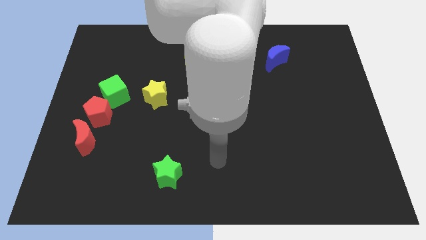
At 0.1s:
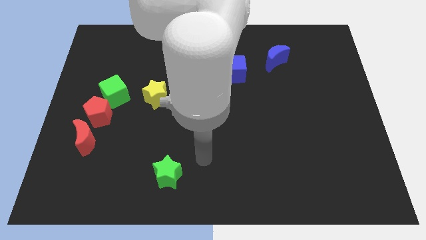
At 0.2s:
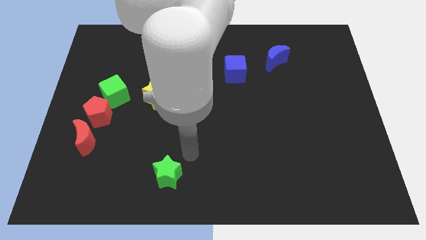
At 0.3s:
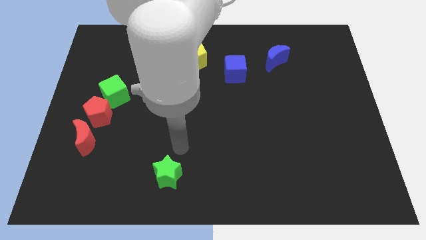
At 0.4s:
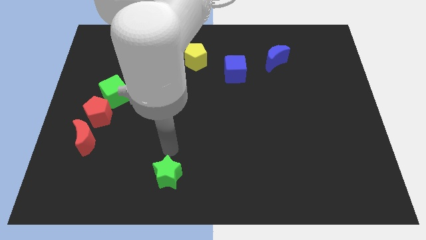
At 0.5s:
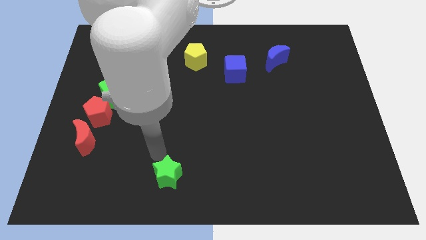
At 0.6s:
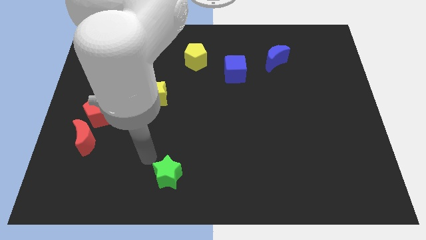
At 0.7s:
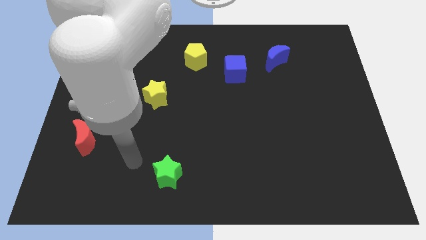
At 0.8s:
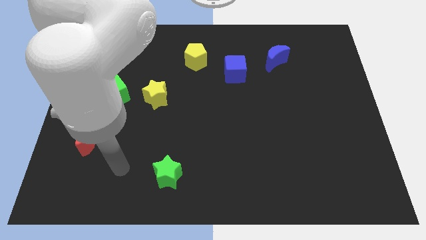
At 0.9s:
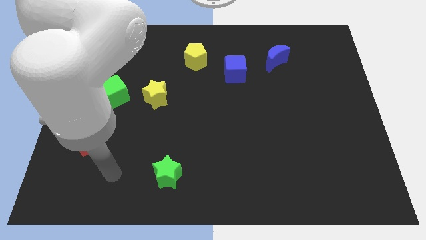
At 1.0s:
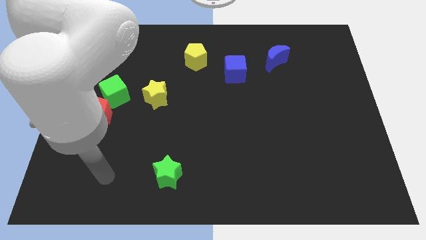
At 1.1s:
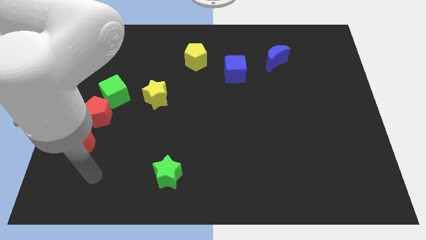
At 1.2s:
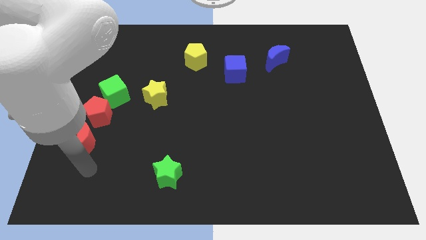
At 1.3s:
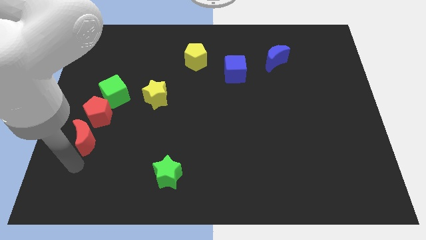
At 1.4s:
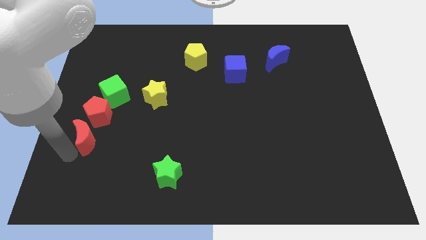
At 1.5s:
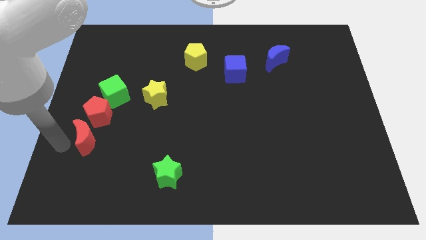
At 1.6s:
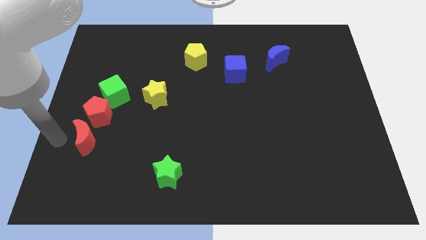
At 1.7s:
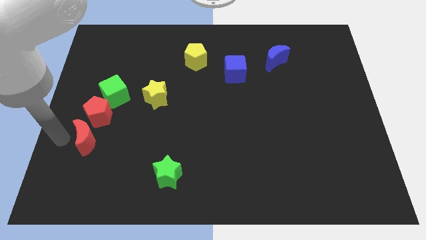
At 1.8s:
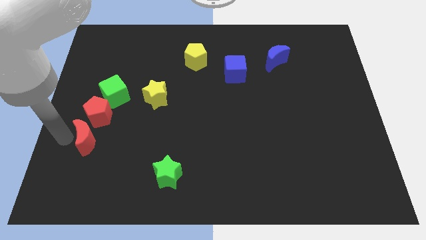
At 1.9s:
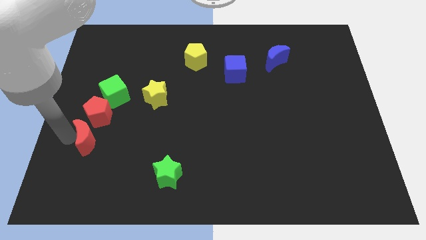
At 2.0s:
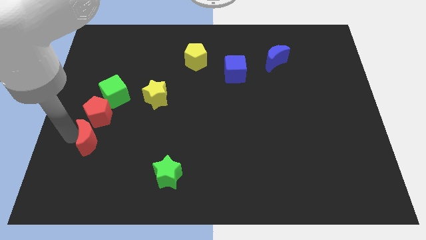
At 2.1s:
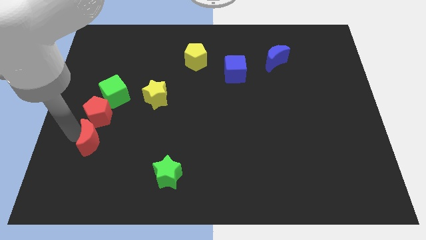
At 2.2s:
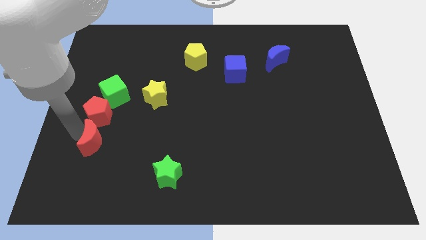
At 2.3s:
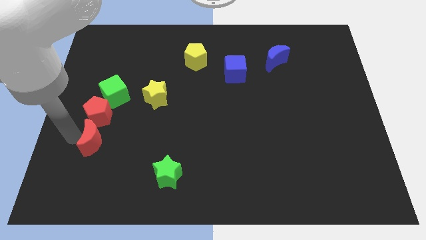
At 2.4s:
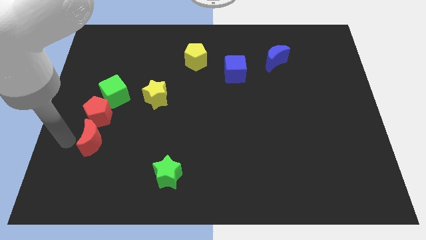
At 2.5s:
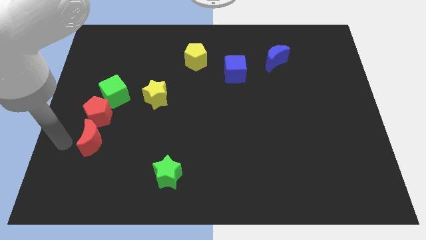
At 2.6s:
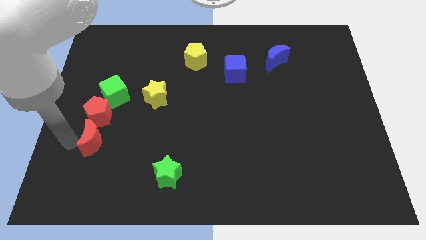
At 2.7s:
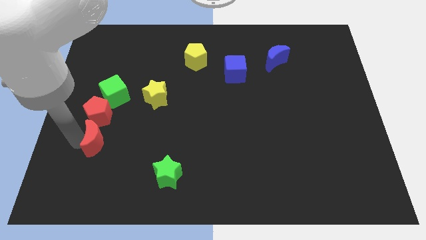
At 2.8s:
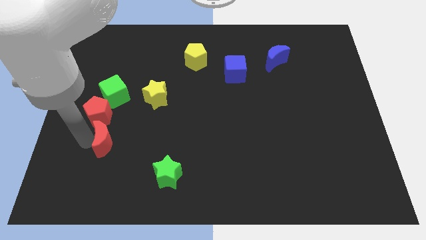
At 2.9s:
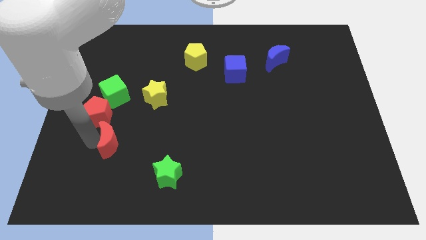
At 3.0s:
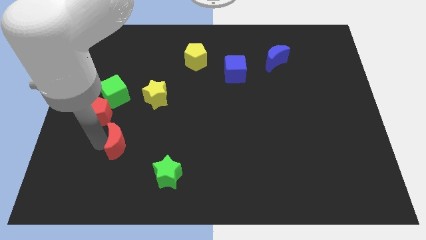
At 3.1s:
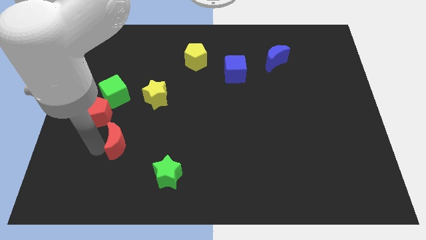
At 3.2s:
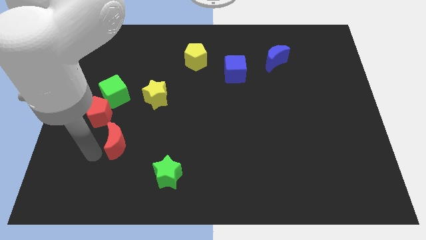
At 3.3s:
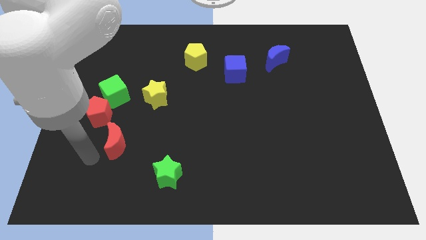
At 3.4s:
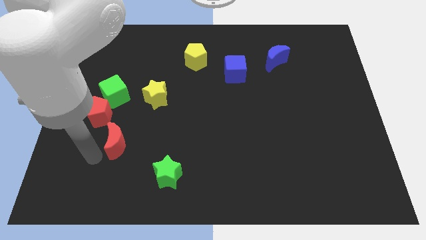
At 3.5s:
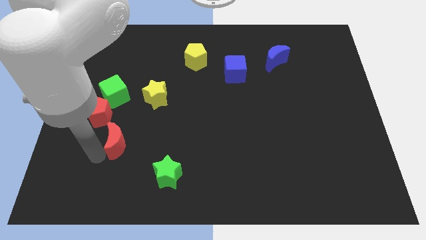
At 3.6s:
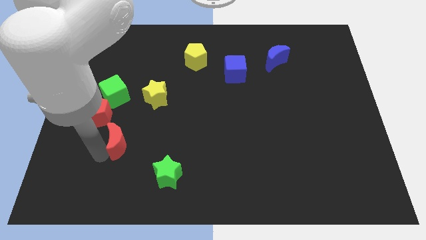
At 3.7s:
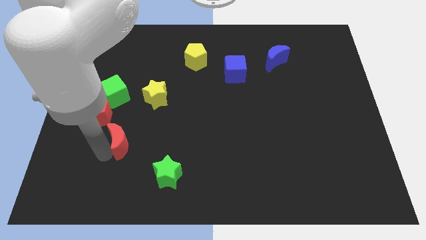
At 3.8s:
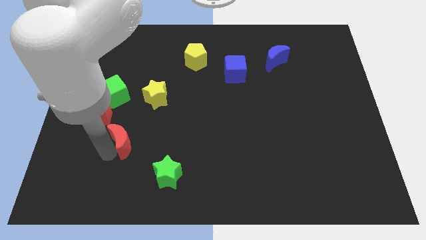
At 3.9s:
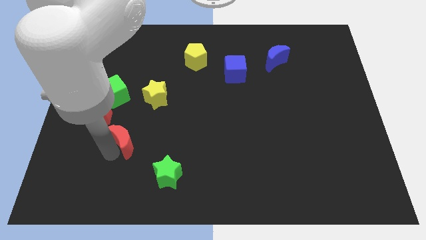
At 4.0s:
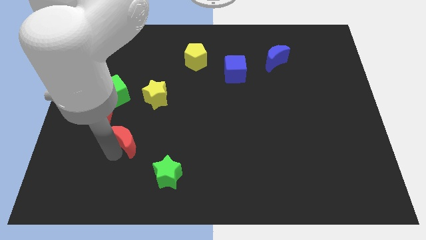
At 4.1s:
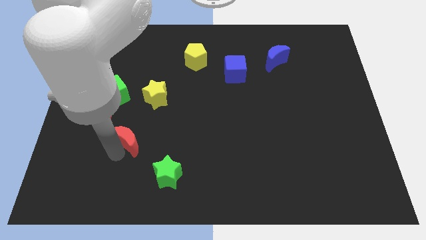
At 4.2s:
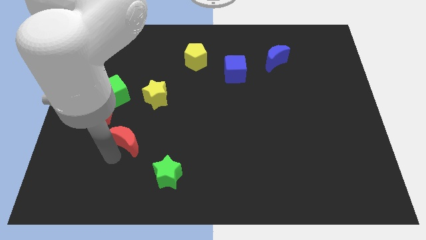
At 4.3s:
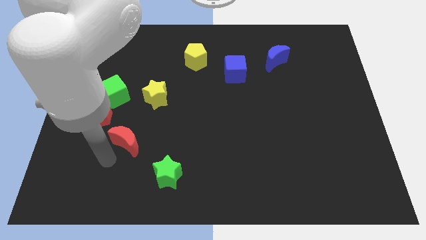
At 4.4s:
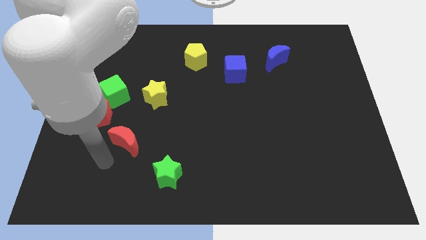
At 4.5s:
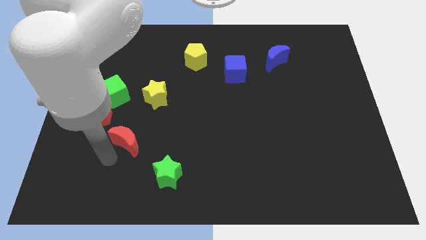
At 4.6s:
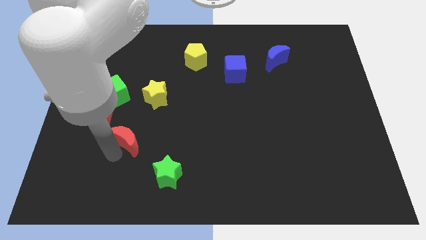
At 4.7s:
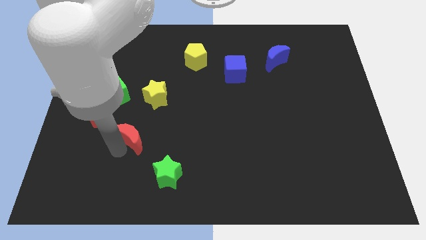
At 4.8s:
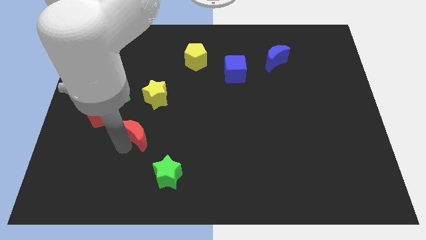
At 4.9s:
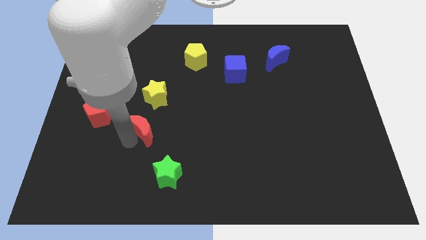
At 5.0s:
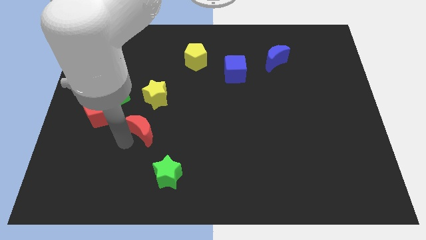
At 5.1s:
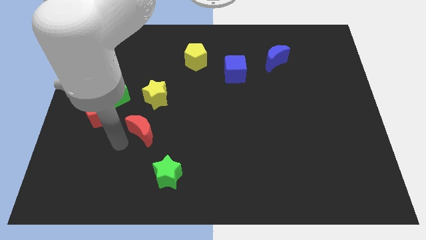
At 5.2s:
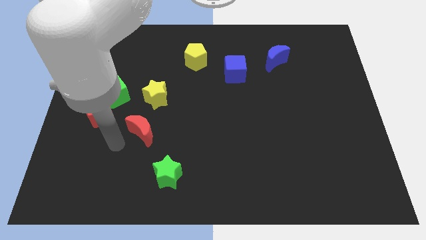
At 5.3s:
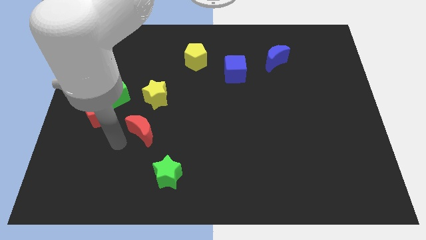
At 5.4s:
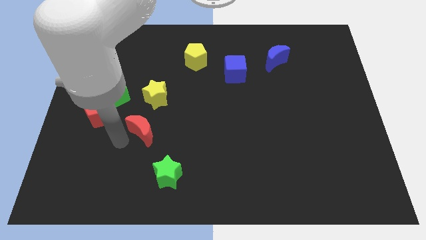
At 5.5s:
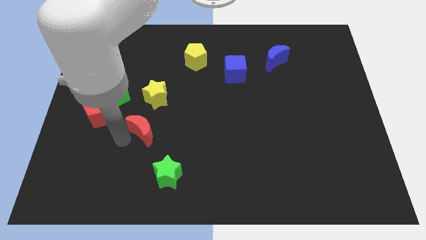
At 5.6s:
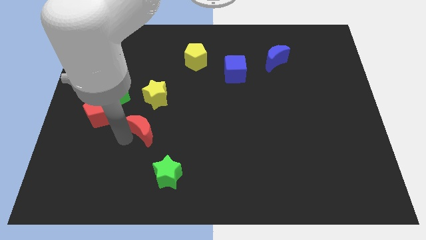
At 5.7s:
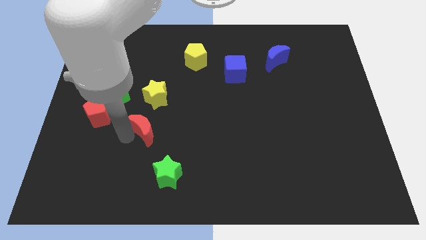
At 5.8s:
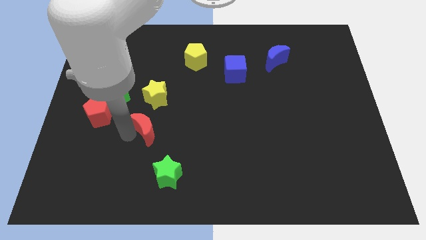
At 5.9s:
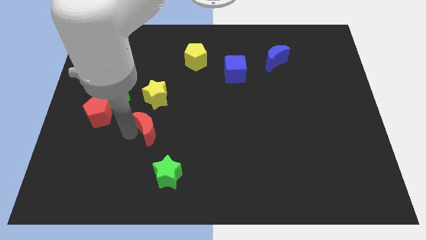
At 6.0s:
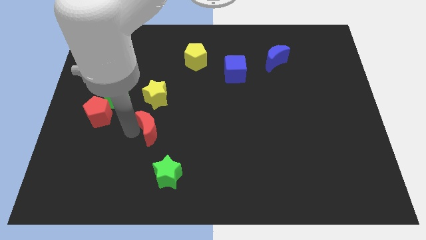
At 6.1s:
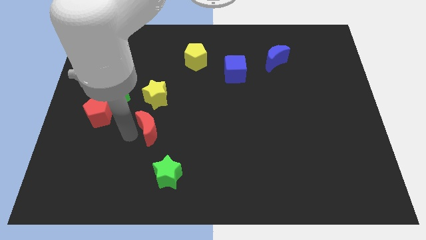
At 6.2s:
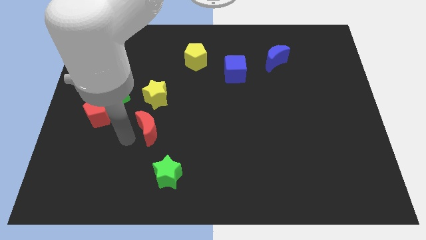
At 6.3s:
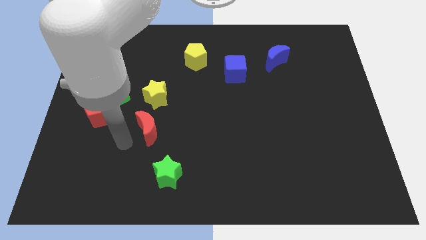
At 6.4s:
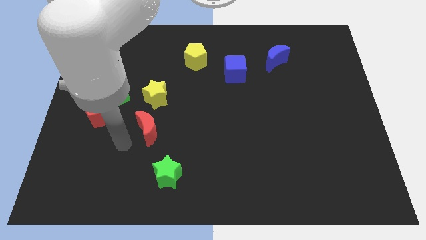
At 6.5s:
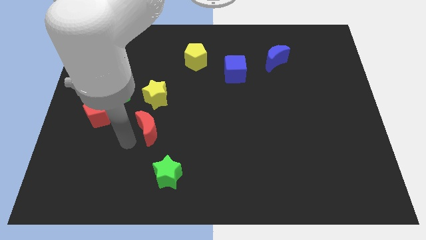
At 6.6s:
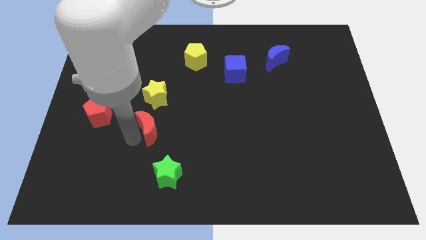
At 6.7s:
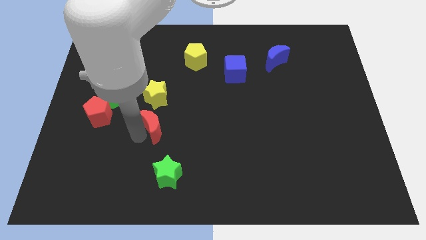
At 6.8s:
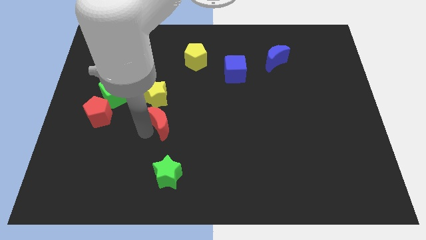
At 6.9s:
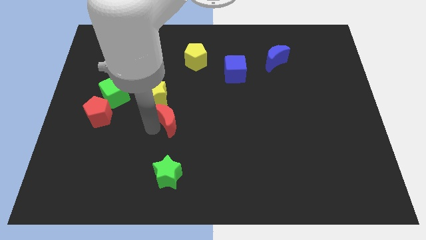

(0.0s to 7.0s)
push the red moon to the middle of the board
